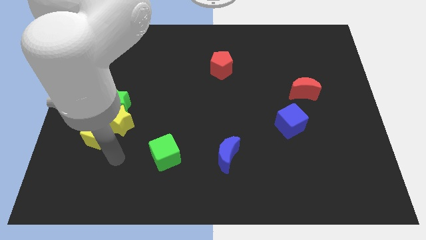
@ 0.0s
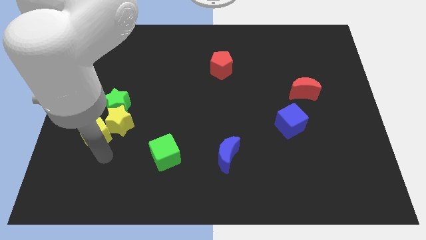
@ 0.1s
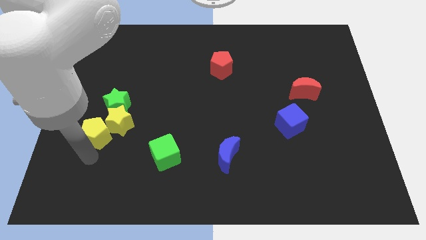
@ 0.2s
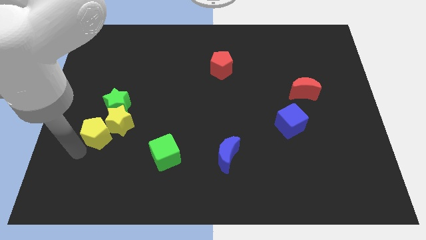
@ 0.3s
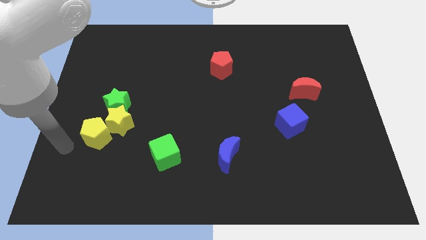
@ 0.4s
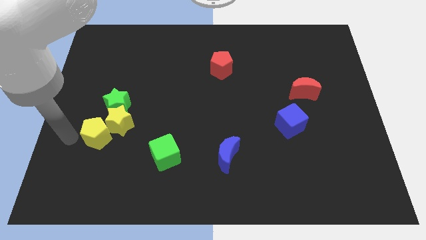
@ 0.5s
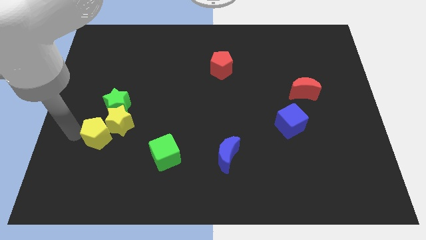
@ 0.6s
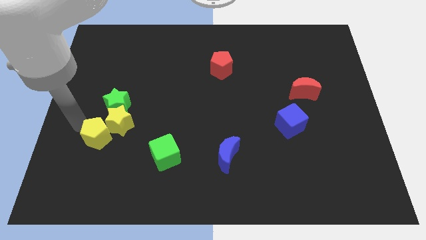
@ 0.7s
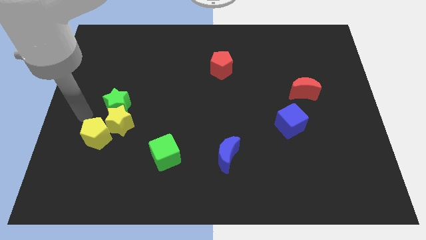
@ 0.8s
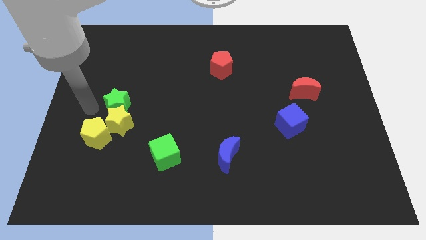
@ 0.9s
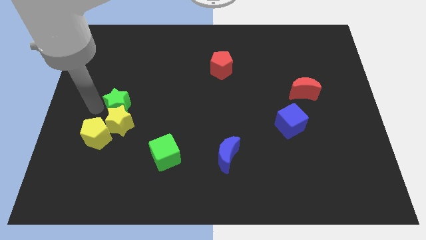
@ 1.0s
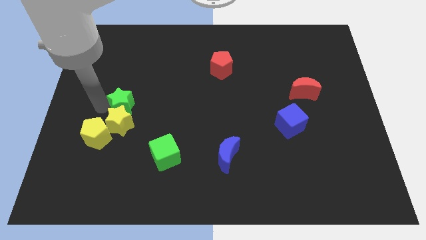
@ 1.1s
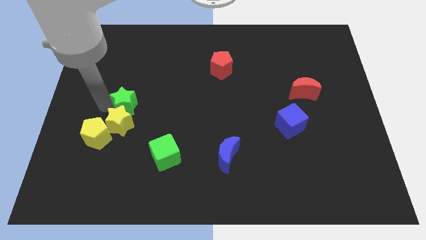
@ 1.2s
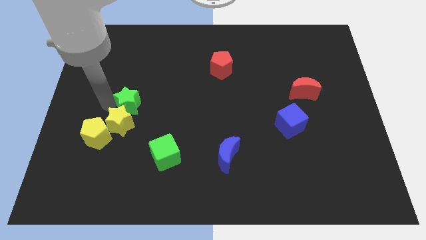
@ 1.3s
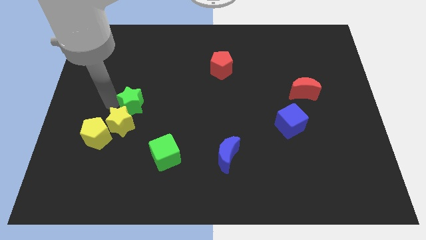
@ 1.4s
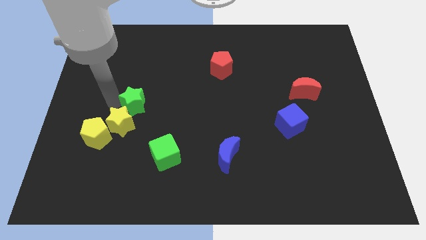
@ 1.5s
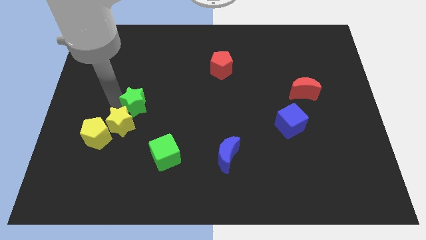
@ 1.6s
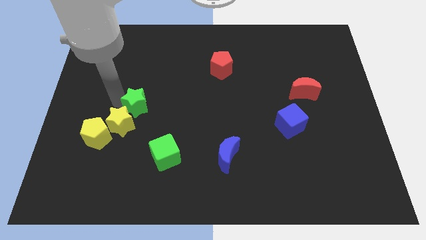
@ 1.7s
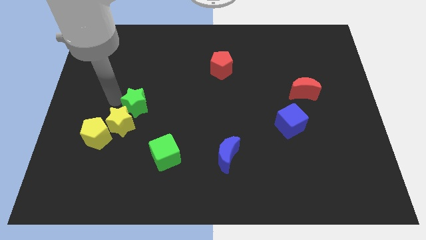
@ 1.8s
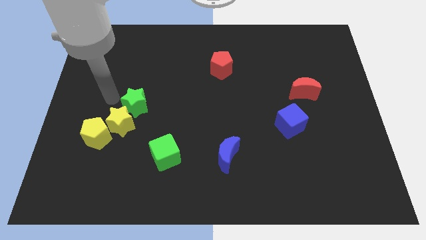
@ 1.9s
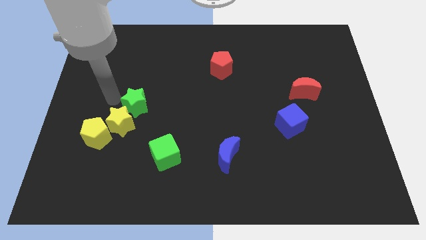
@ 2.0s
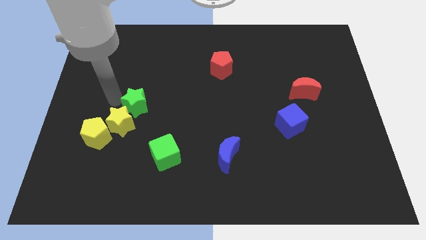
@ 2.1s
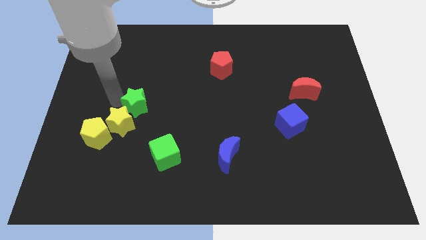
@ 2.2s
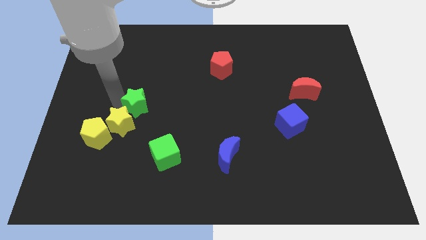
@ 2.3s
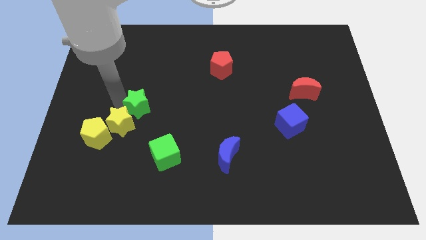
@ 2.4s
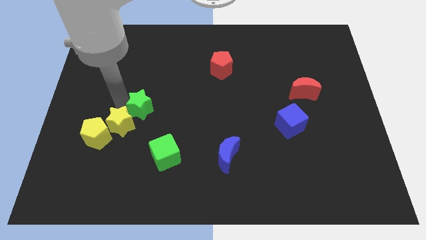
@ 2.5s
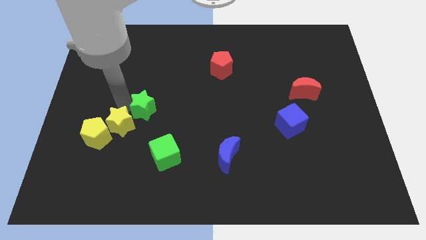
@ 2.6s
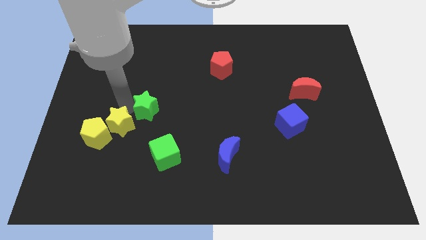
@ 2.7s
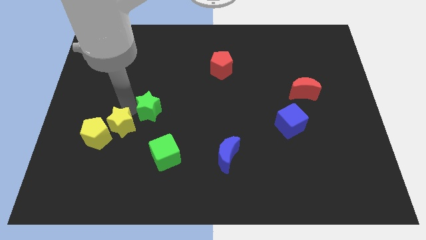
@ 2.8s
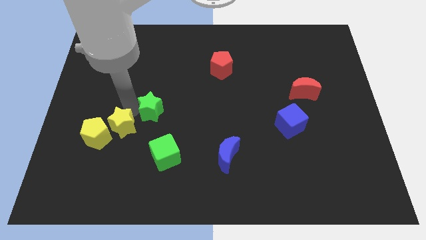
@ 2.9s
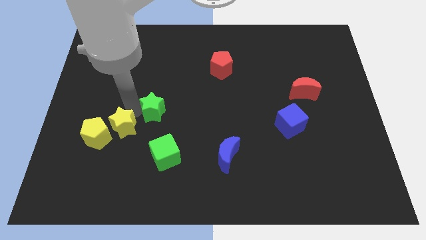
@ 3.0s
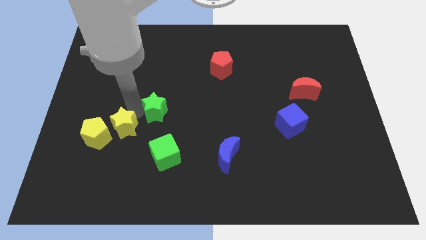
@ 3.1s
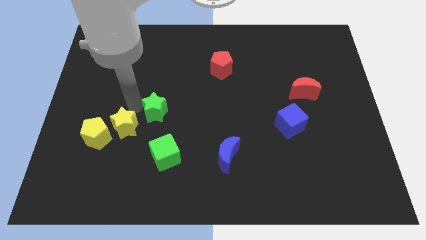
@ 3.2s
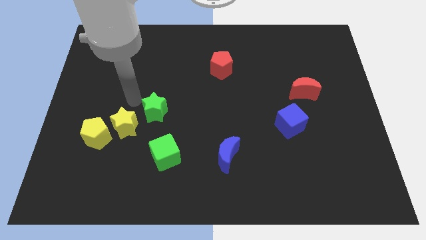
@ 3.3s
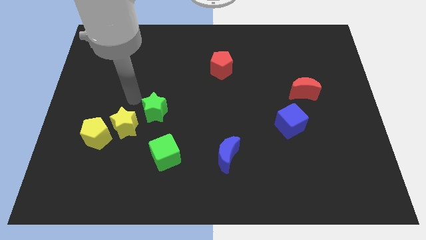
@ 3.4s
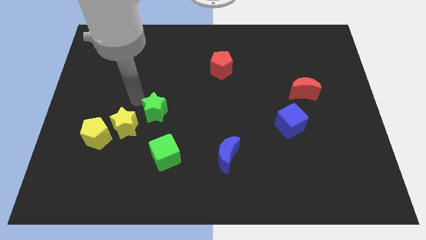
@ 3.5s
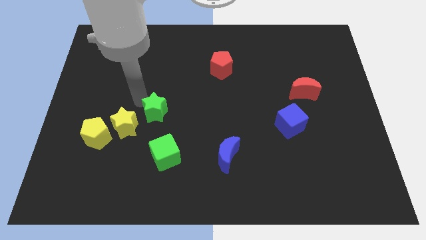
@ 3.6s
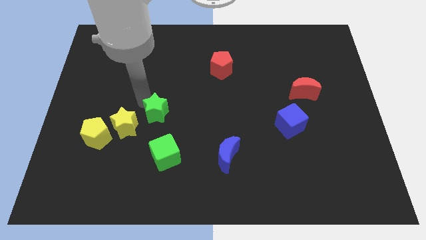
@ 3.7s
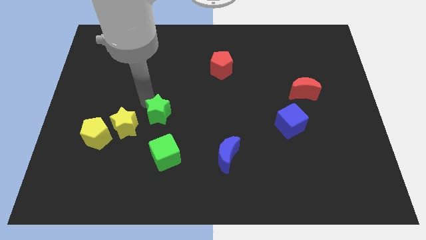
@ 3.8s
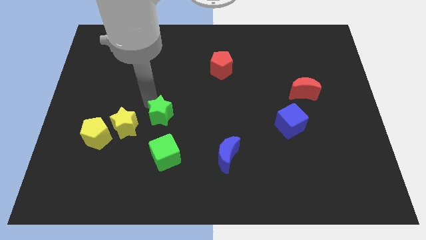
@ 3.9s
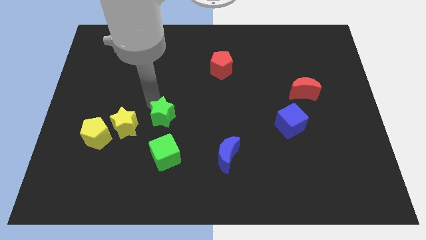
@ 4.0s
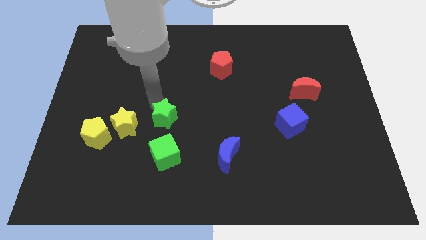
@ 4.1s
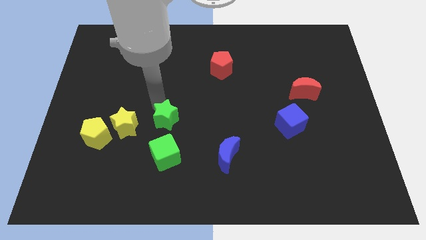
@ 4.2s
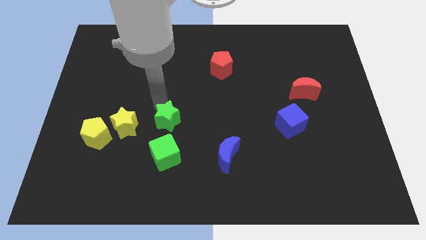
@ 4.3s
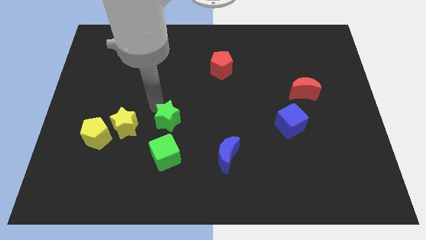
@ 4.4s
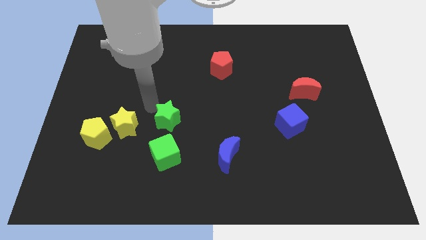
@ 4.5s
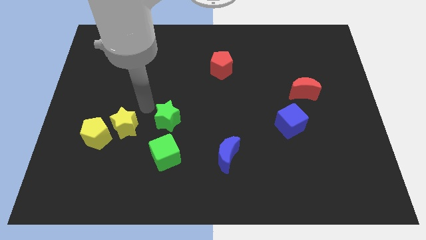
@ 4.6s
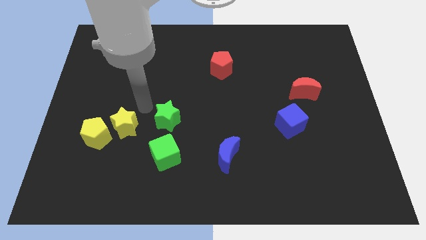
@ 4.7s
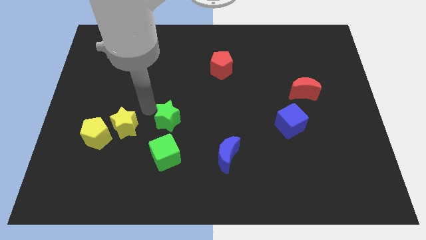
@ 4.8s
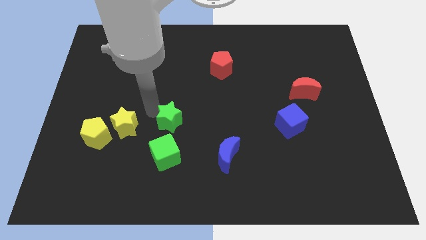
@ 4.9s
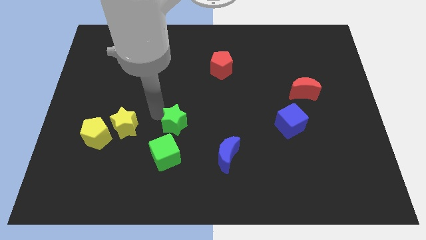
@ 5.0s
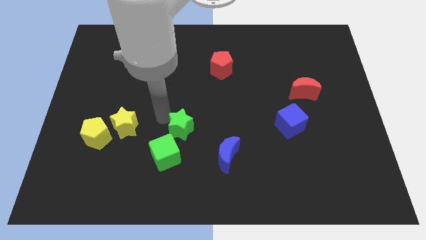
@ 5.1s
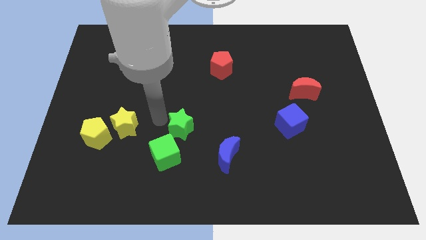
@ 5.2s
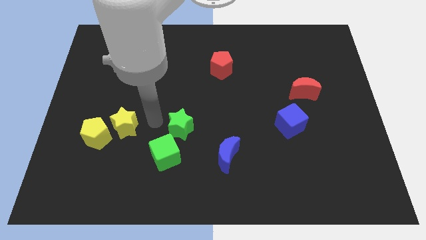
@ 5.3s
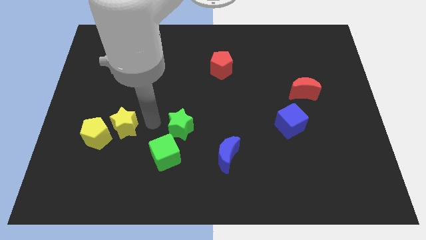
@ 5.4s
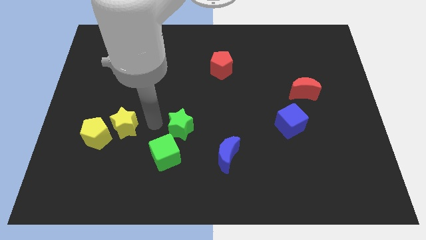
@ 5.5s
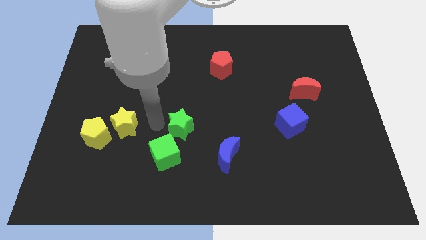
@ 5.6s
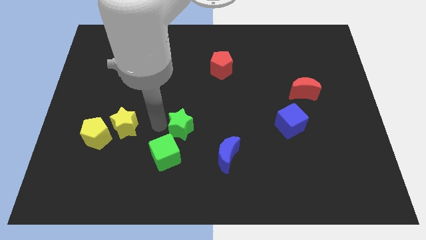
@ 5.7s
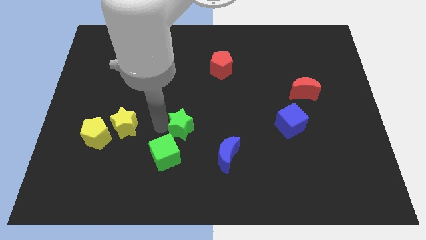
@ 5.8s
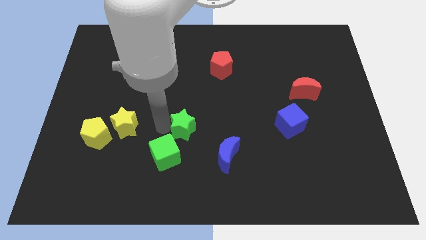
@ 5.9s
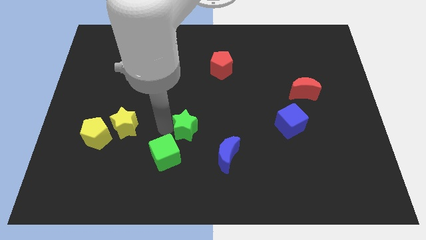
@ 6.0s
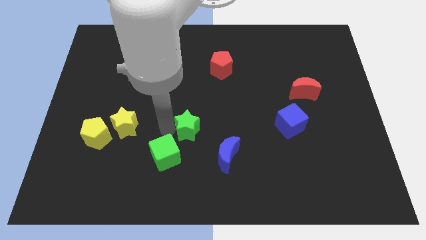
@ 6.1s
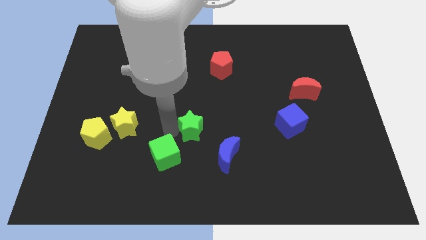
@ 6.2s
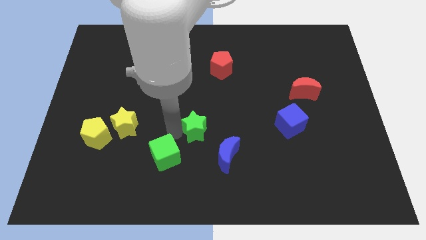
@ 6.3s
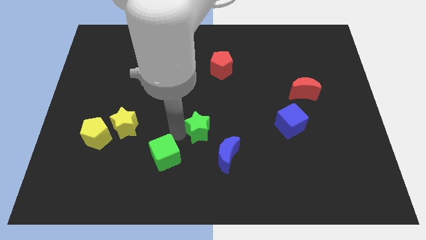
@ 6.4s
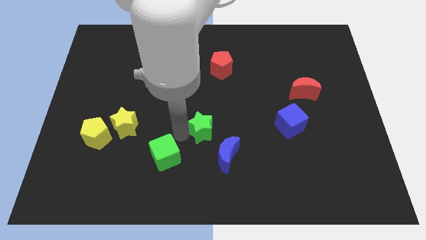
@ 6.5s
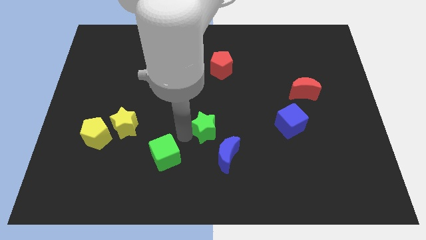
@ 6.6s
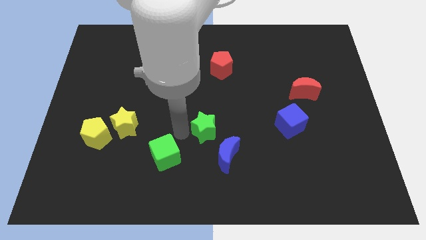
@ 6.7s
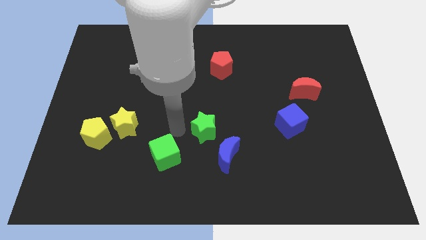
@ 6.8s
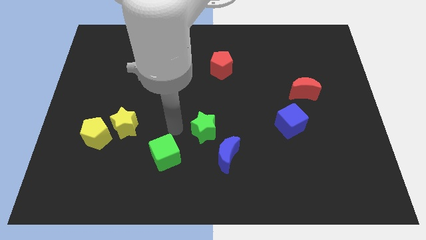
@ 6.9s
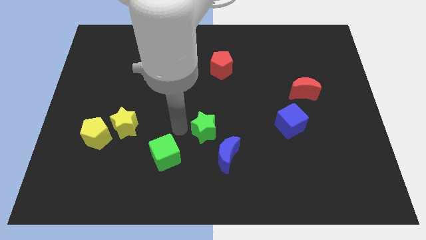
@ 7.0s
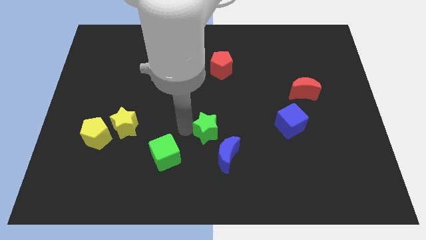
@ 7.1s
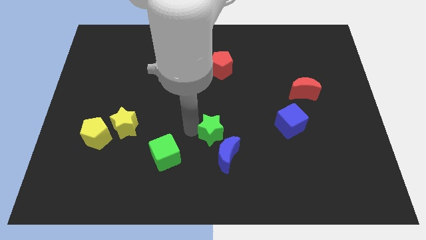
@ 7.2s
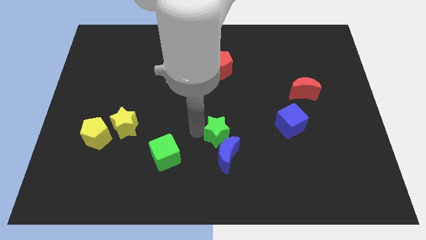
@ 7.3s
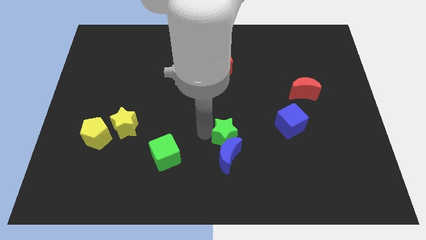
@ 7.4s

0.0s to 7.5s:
slide the green star to the top right side of the blue moon

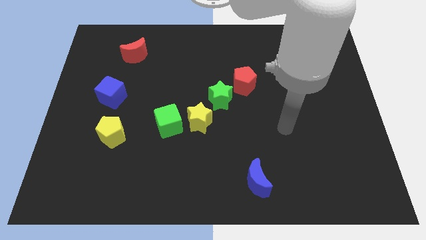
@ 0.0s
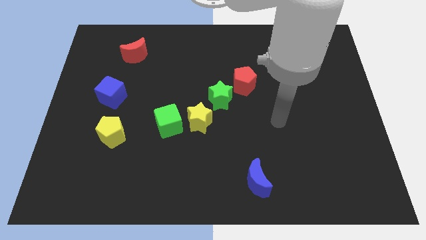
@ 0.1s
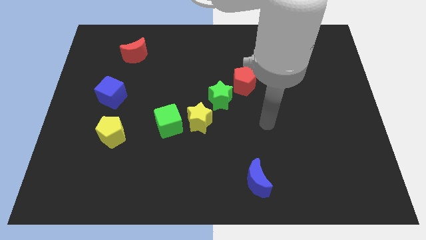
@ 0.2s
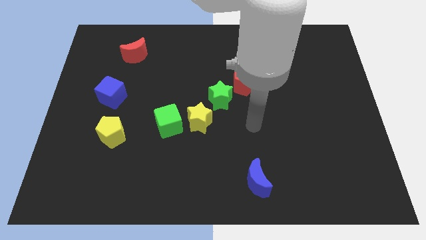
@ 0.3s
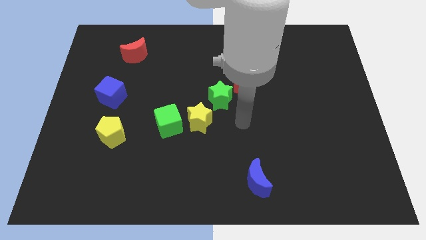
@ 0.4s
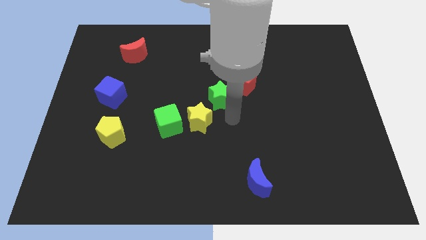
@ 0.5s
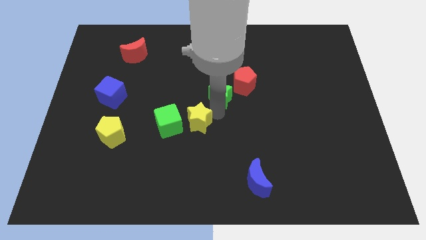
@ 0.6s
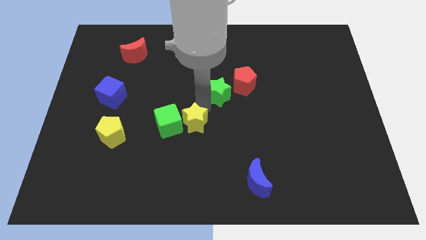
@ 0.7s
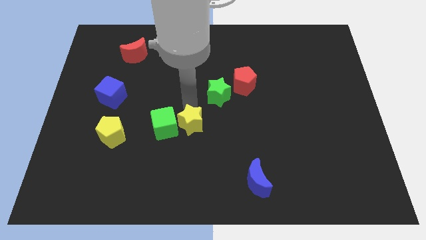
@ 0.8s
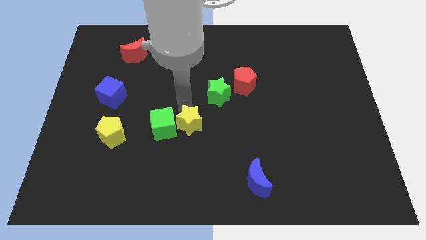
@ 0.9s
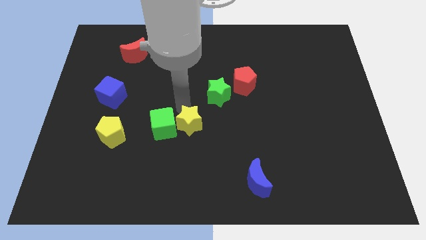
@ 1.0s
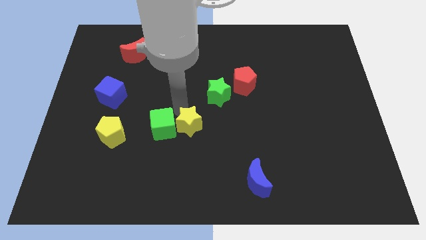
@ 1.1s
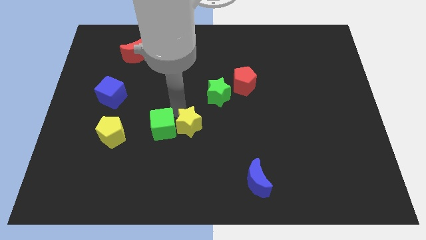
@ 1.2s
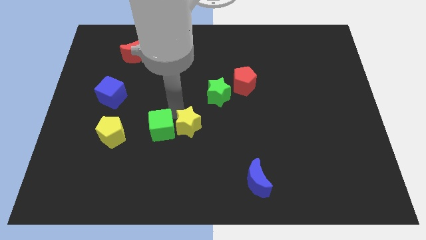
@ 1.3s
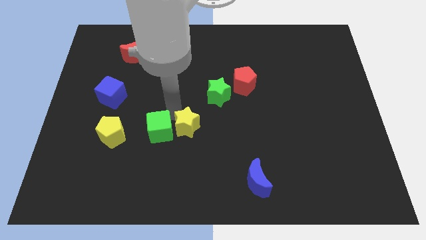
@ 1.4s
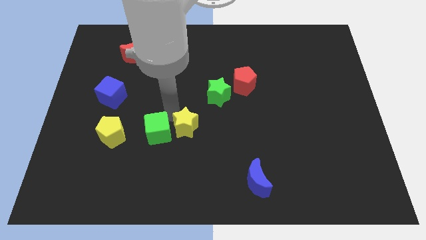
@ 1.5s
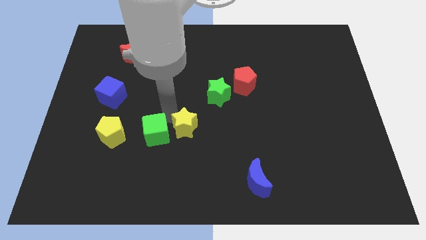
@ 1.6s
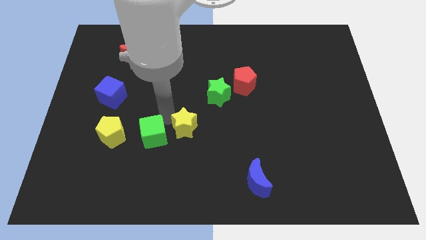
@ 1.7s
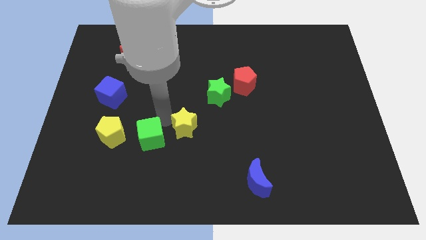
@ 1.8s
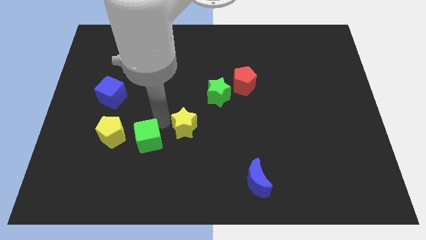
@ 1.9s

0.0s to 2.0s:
push the green cube diagonally down and to the right of the yellow pentagon
